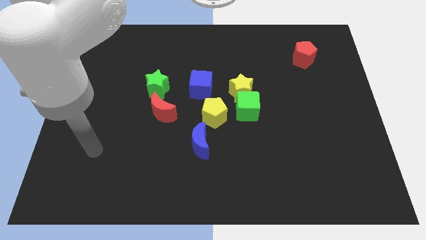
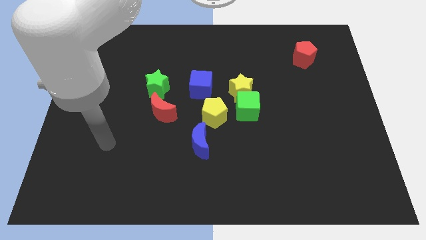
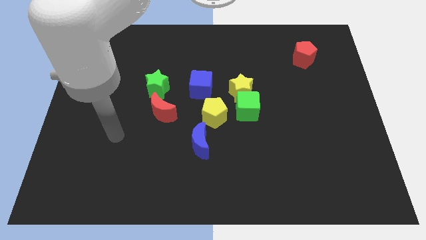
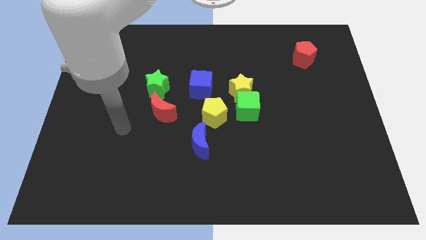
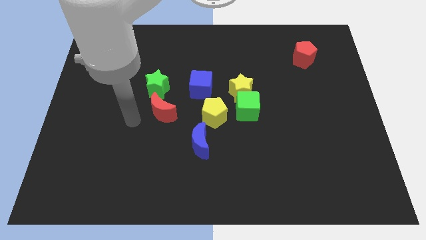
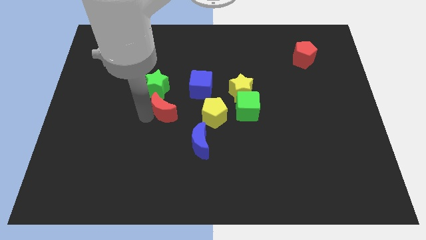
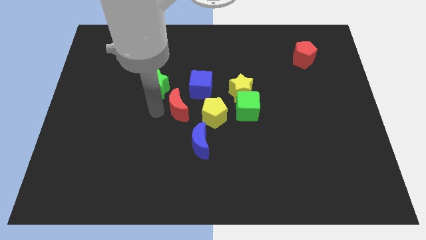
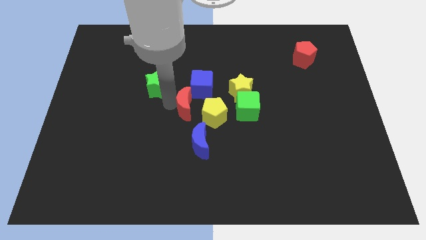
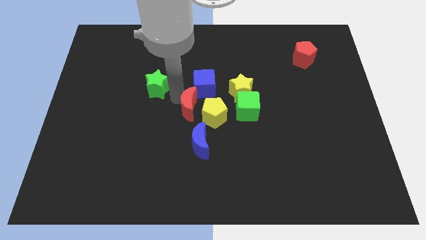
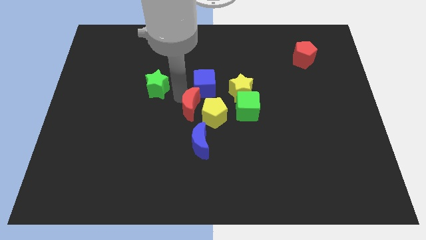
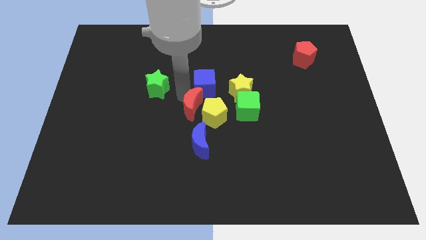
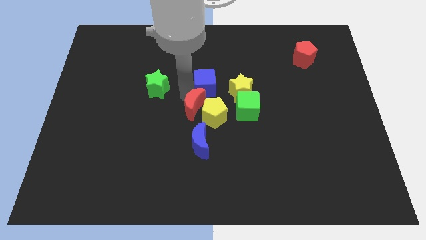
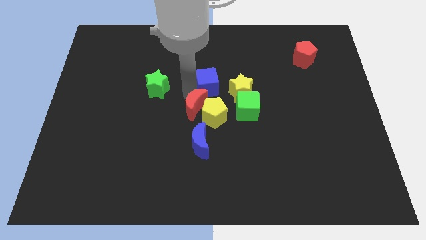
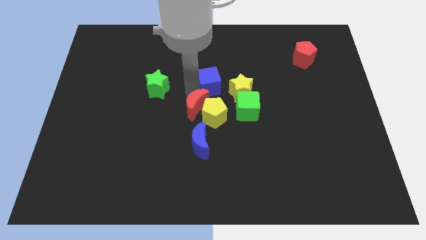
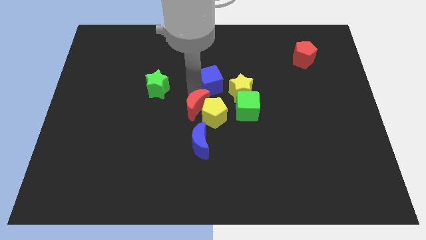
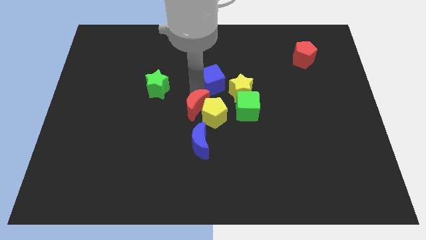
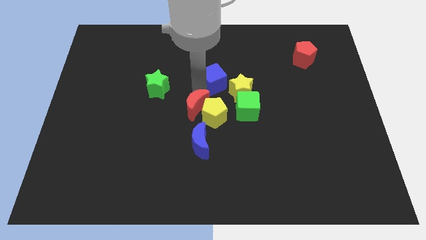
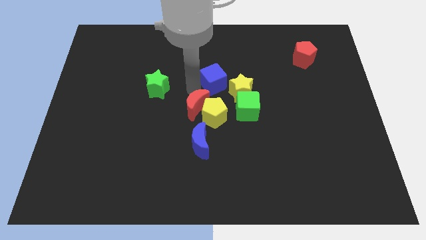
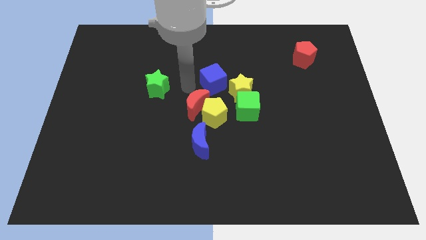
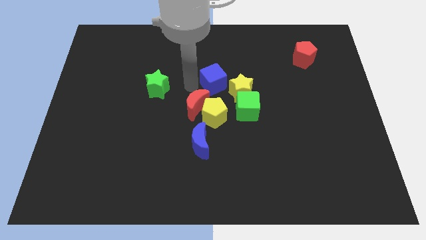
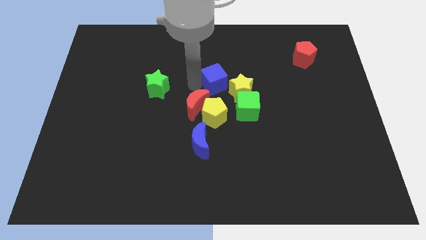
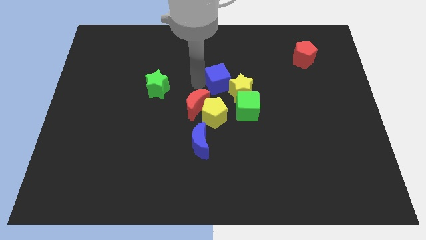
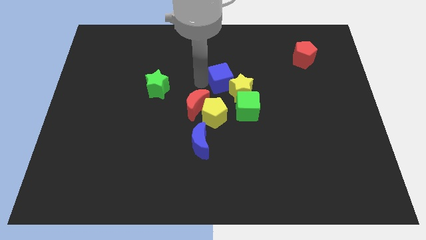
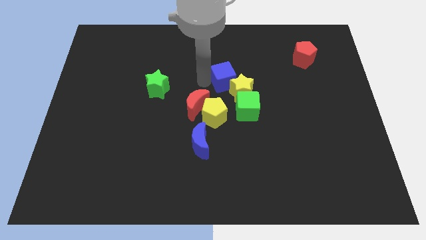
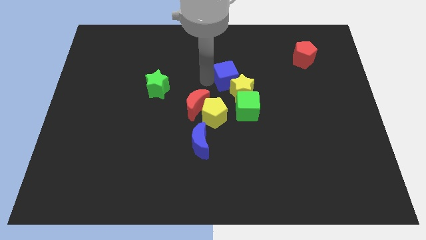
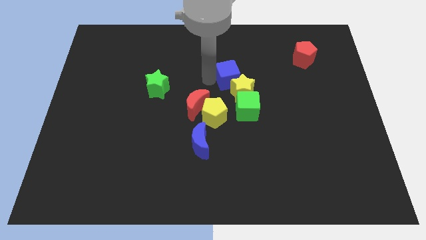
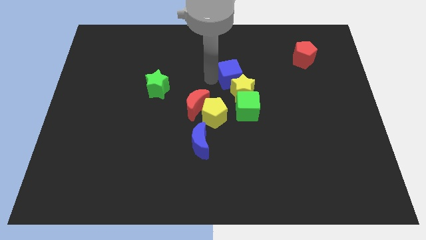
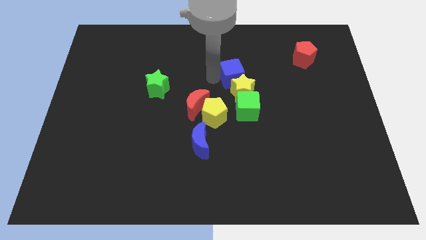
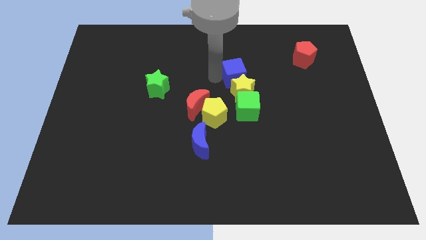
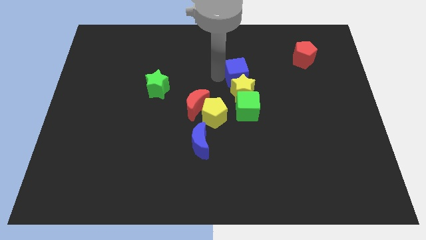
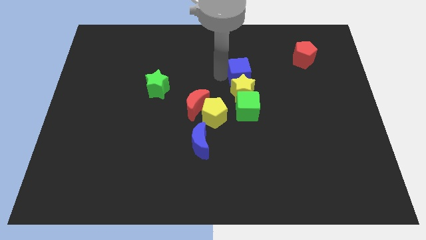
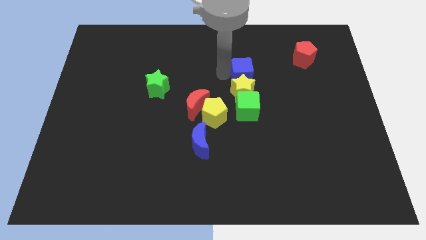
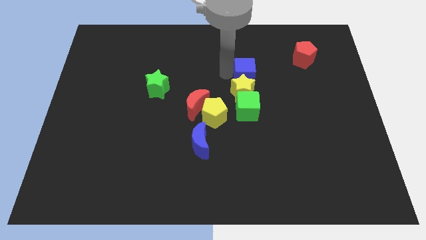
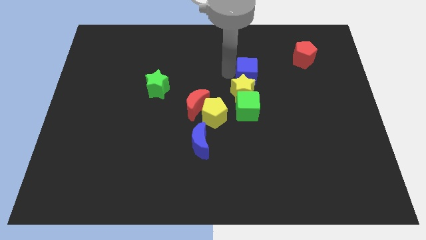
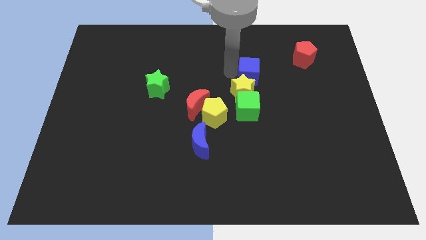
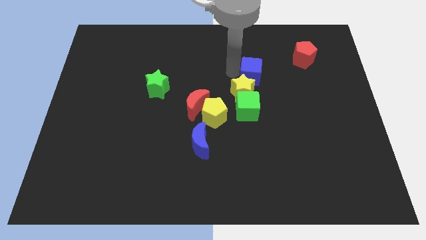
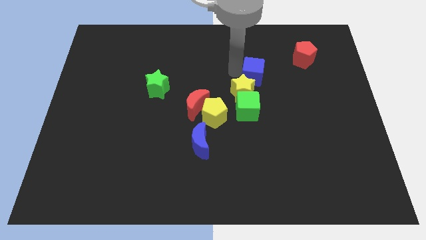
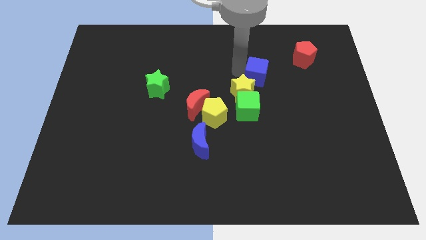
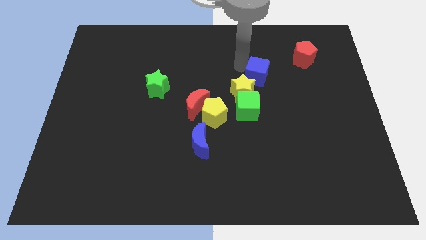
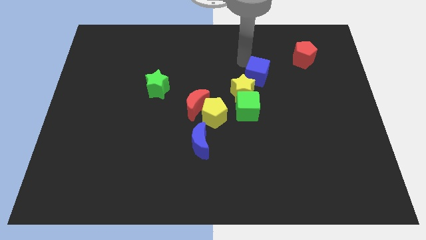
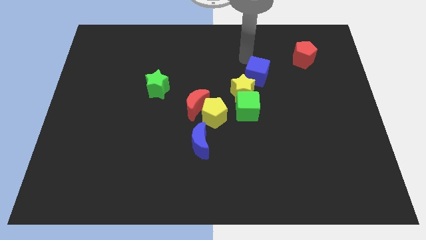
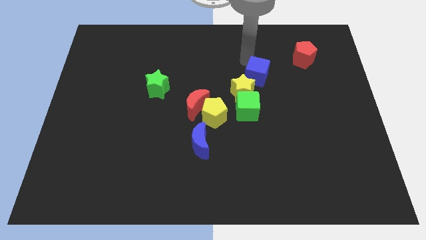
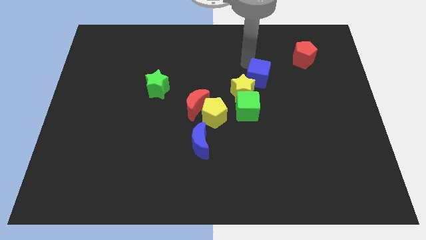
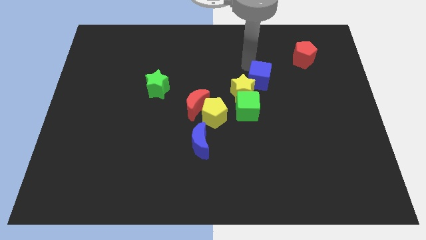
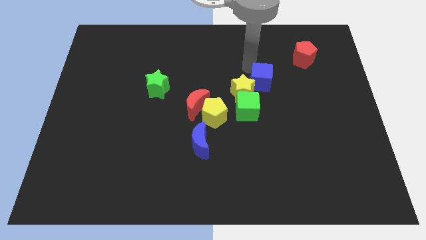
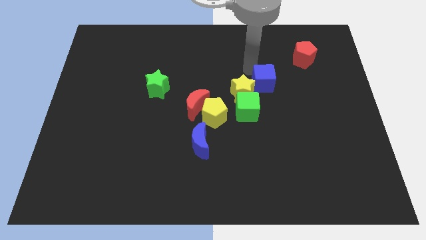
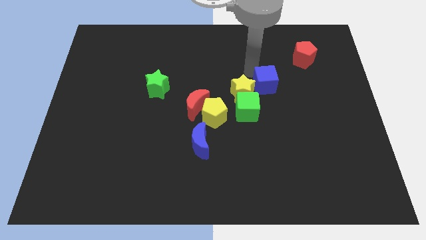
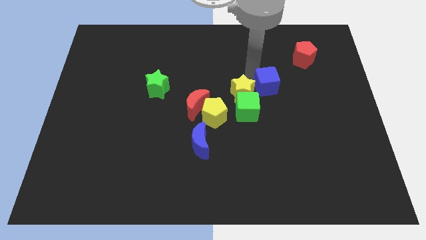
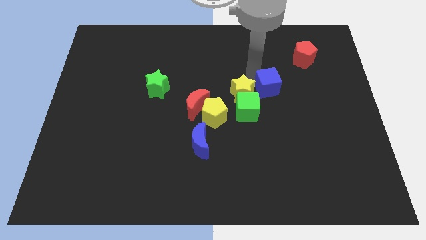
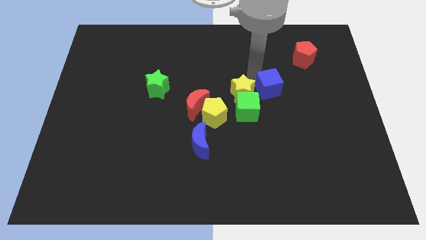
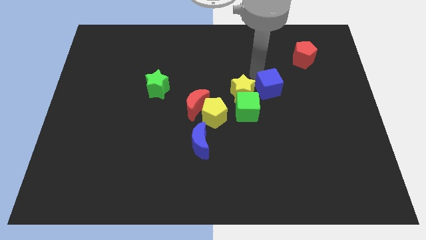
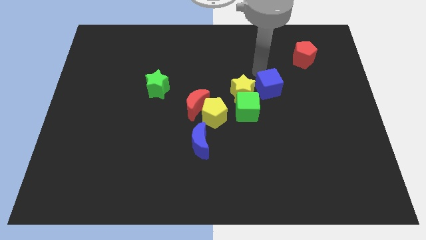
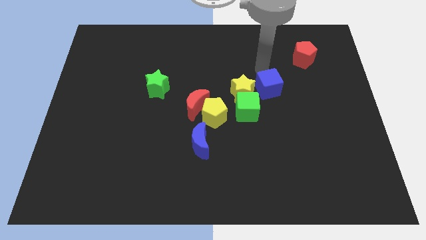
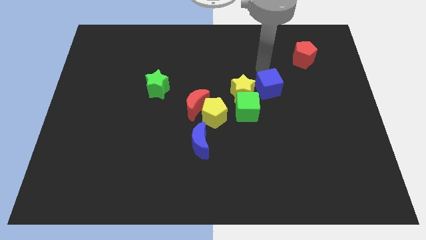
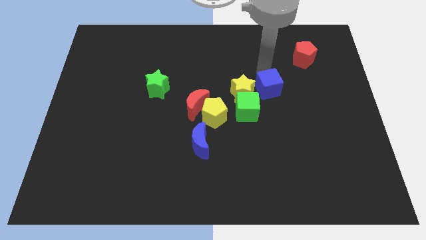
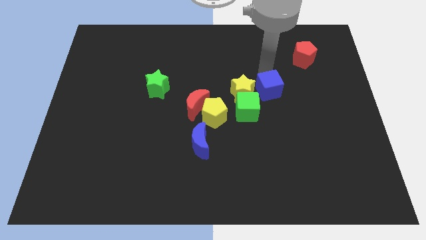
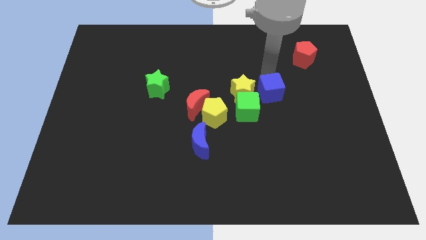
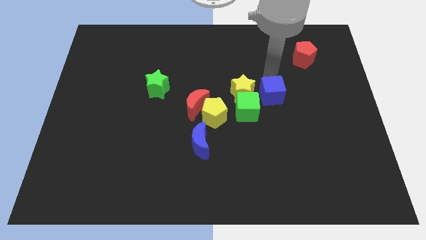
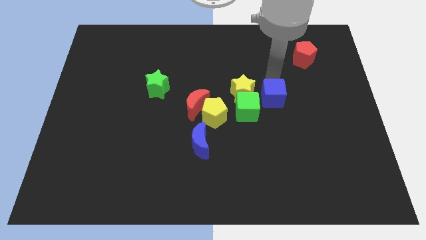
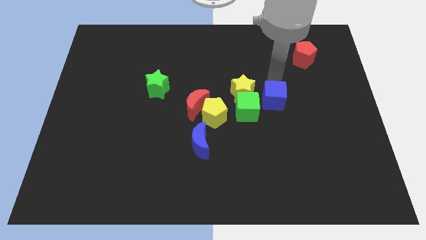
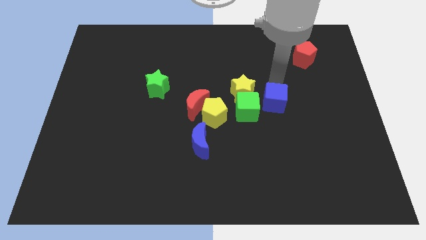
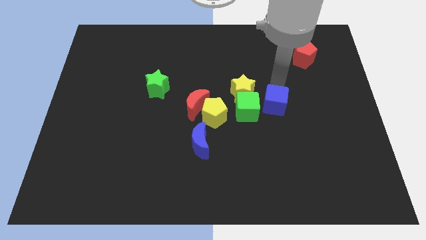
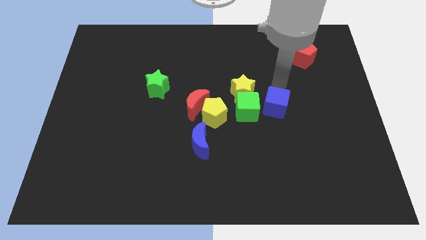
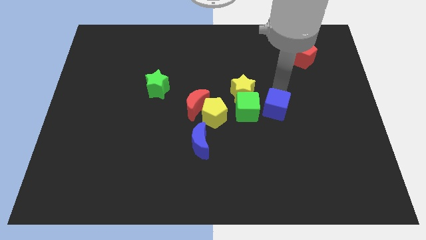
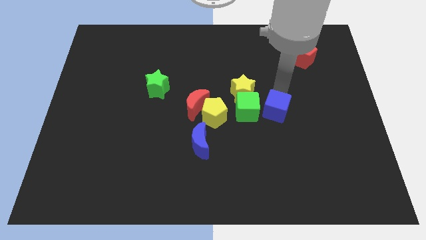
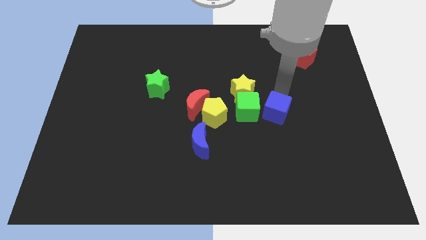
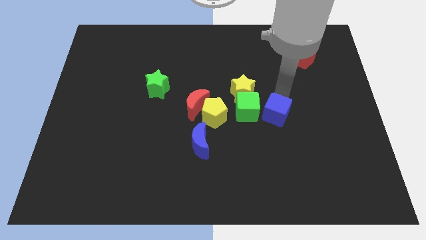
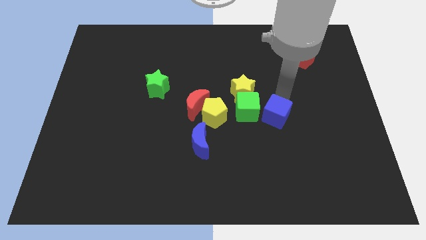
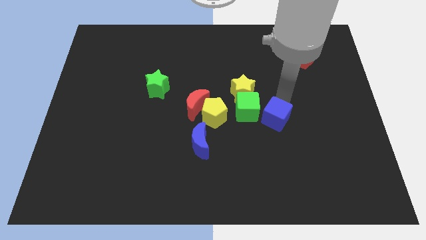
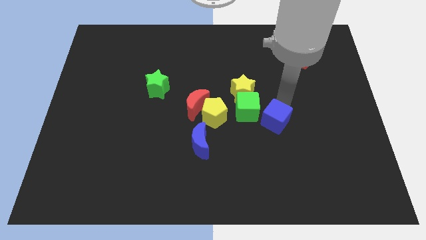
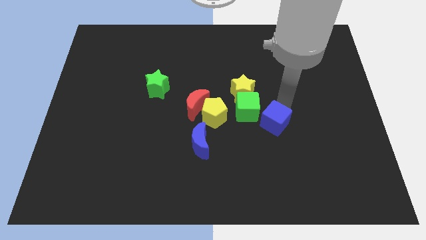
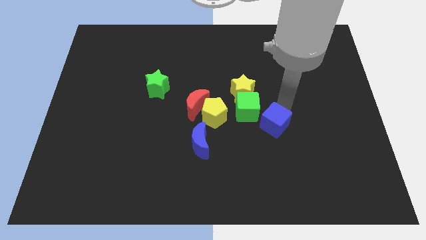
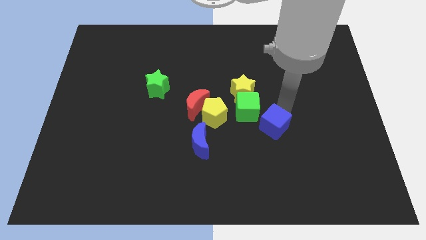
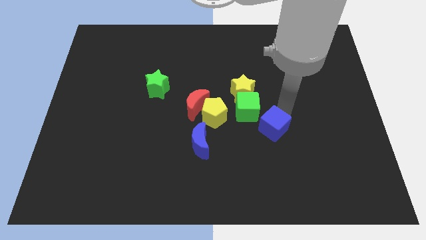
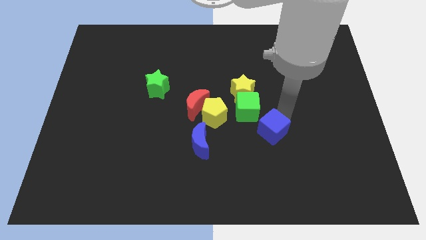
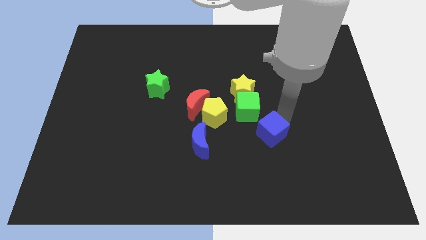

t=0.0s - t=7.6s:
push the blue cube below the green cube
